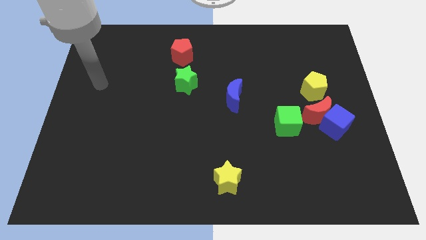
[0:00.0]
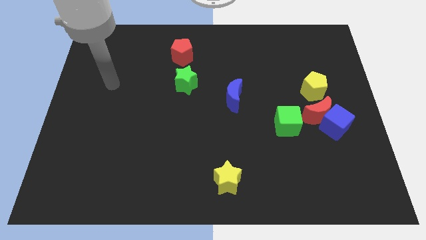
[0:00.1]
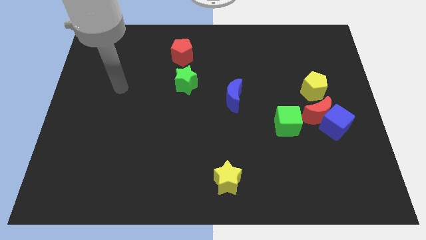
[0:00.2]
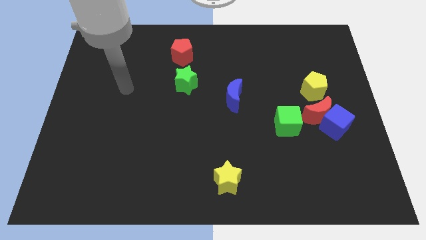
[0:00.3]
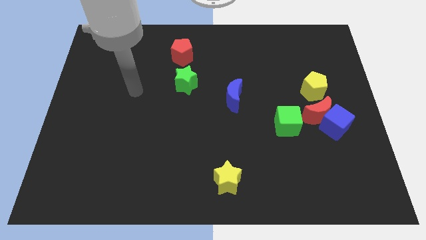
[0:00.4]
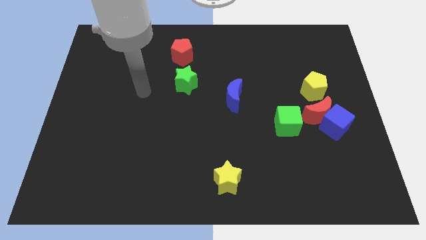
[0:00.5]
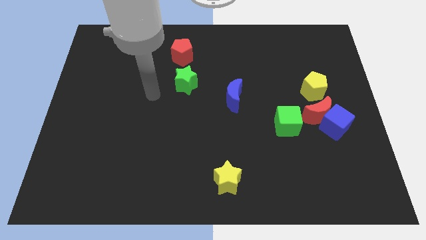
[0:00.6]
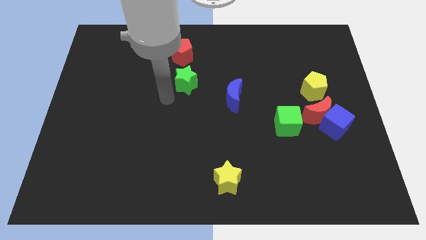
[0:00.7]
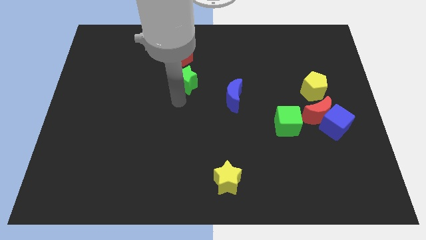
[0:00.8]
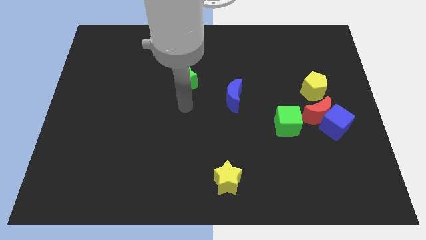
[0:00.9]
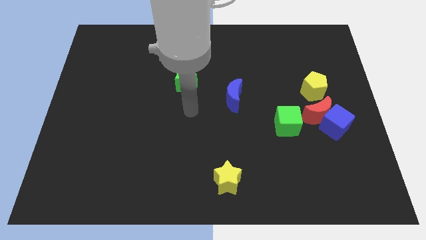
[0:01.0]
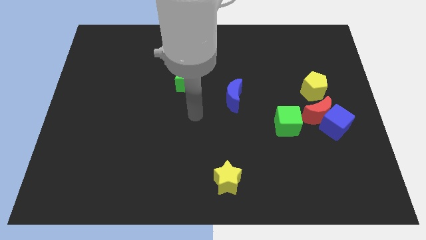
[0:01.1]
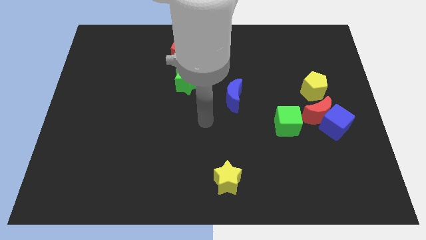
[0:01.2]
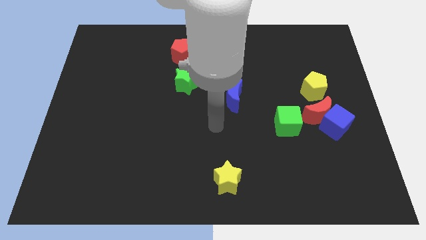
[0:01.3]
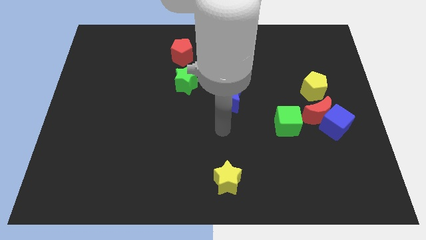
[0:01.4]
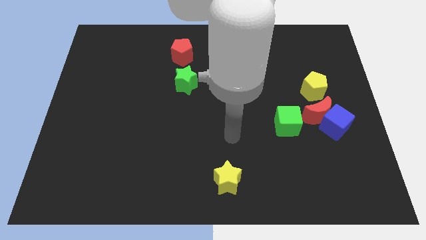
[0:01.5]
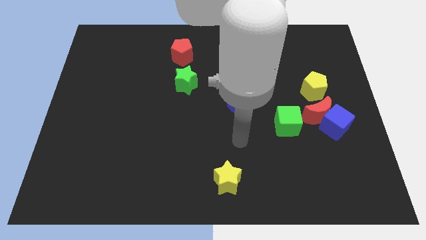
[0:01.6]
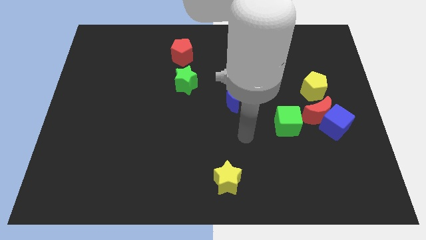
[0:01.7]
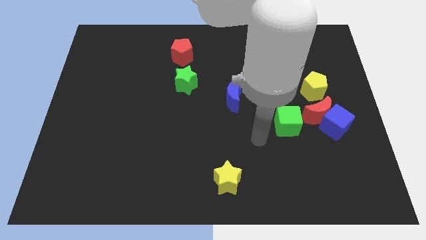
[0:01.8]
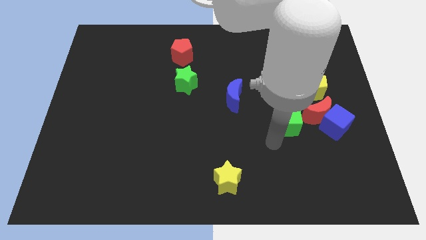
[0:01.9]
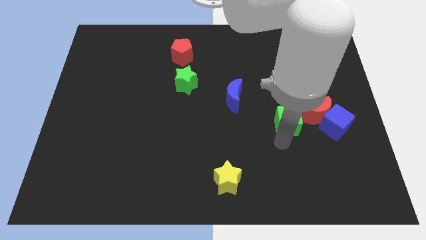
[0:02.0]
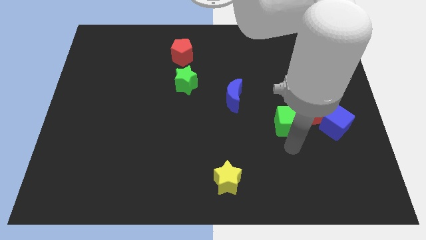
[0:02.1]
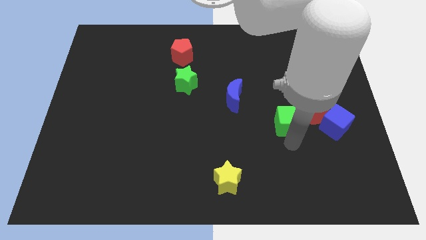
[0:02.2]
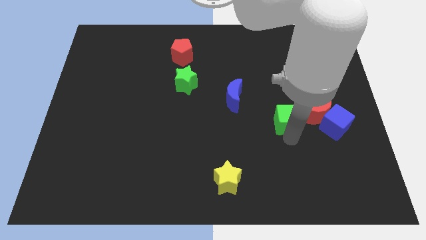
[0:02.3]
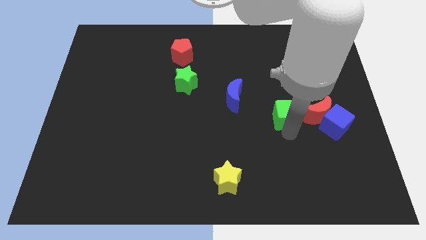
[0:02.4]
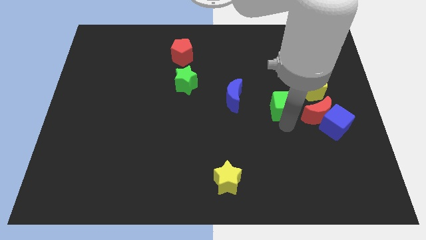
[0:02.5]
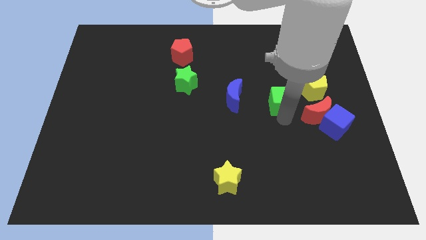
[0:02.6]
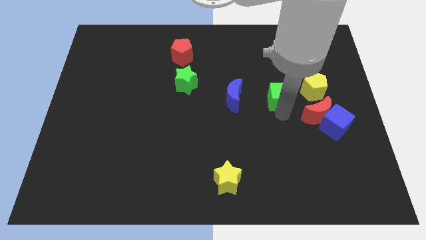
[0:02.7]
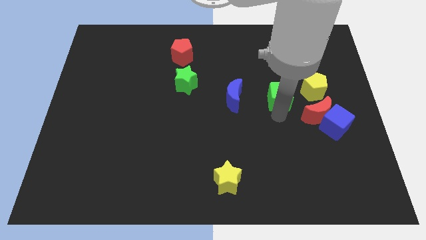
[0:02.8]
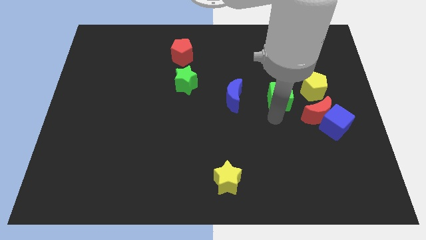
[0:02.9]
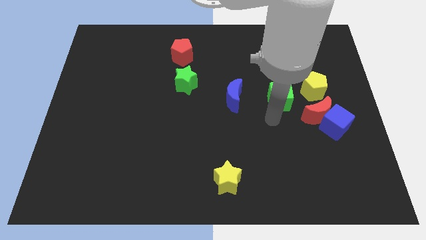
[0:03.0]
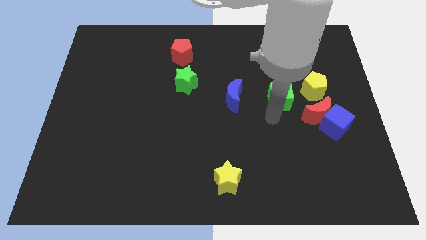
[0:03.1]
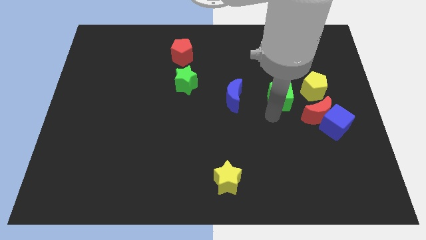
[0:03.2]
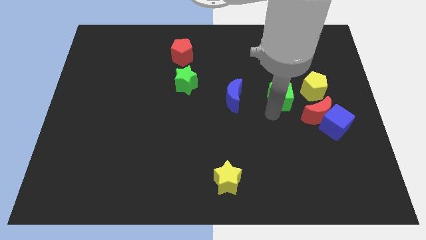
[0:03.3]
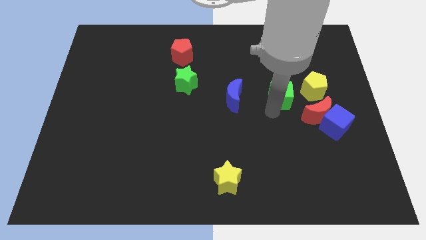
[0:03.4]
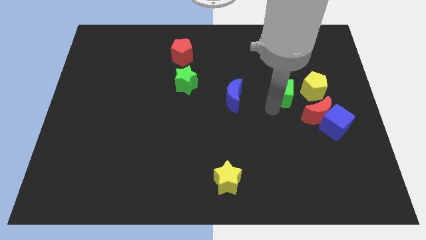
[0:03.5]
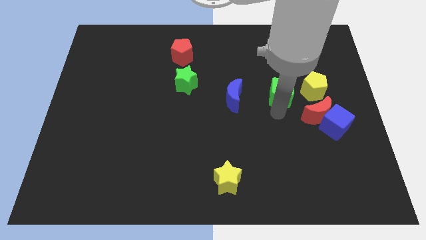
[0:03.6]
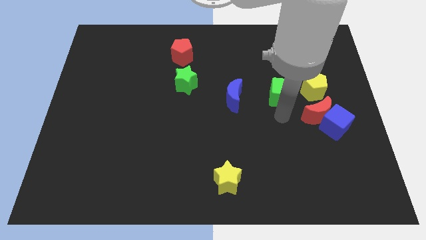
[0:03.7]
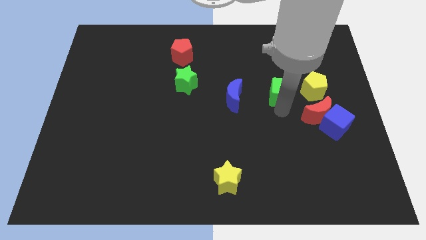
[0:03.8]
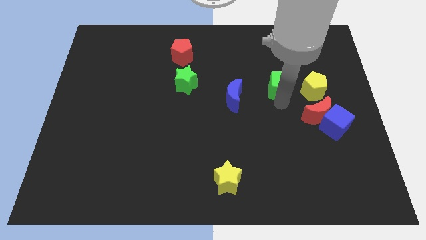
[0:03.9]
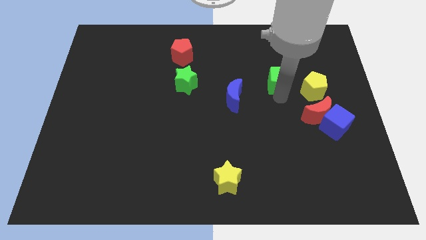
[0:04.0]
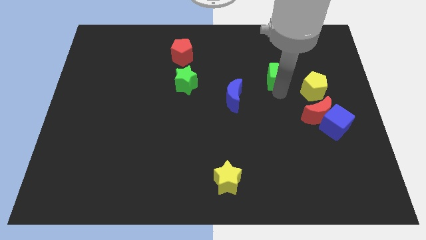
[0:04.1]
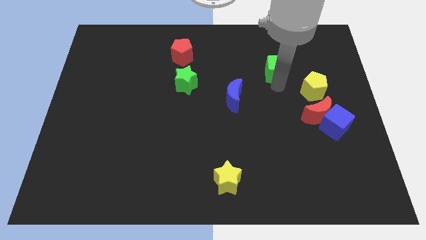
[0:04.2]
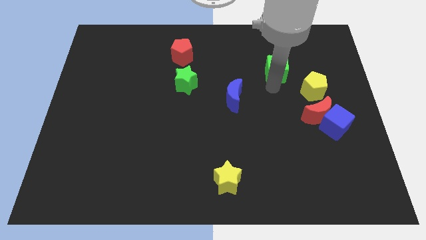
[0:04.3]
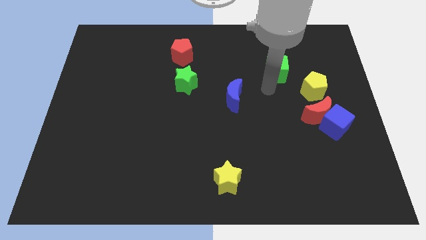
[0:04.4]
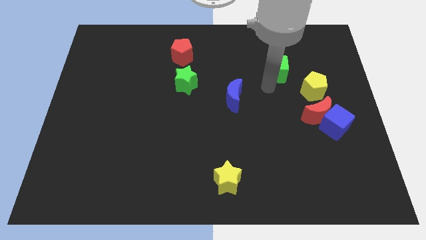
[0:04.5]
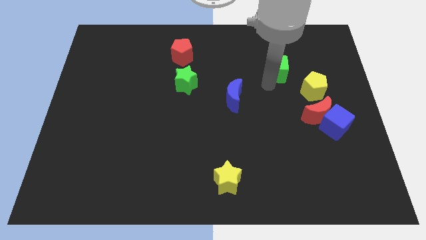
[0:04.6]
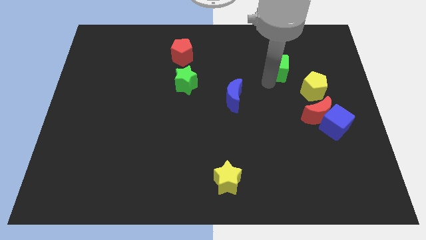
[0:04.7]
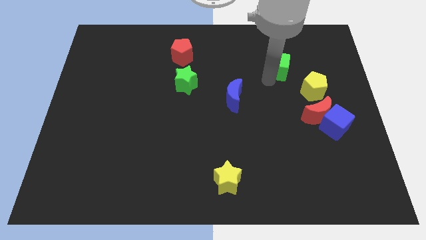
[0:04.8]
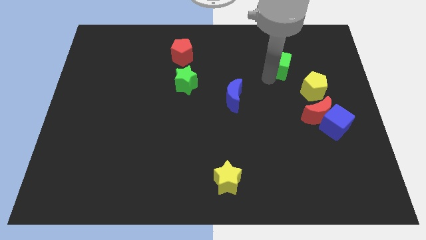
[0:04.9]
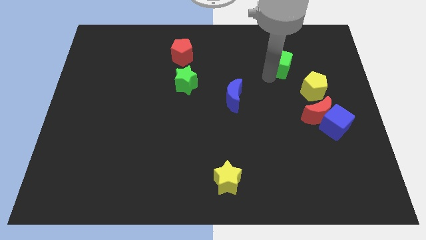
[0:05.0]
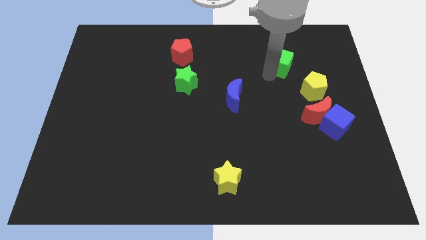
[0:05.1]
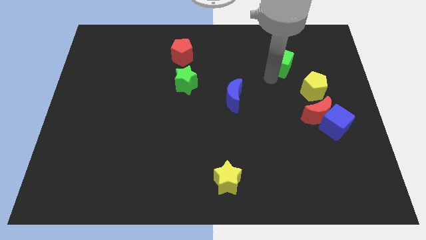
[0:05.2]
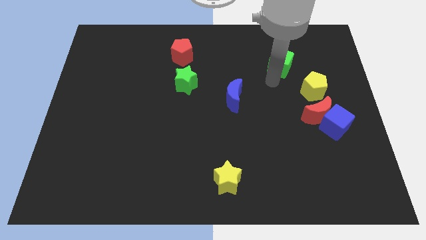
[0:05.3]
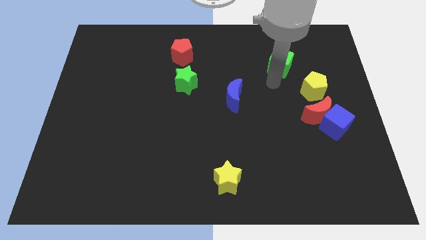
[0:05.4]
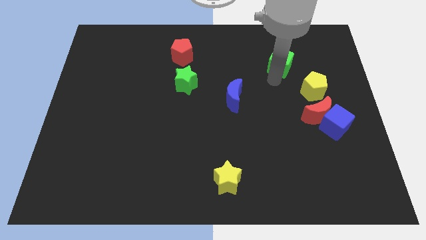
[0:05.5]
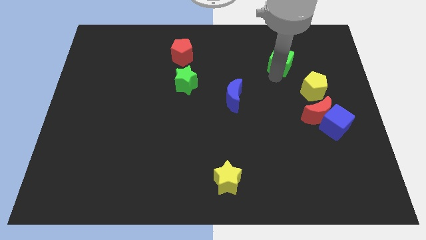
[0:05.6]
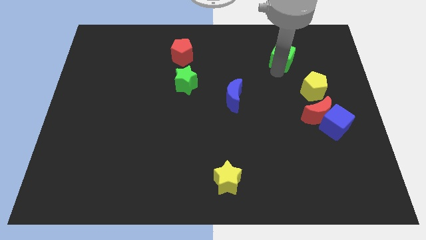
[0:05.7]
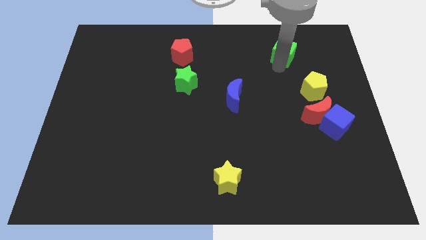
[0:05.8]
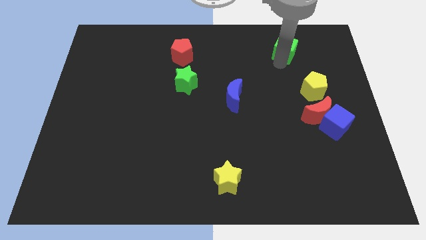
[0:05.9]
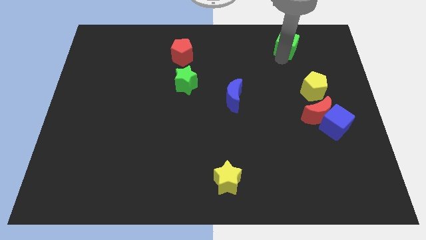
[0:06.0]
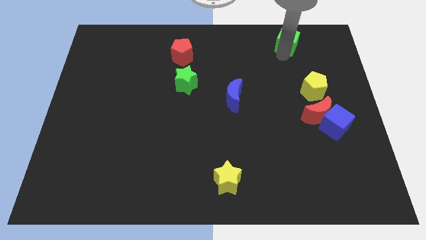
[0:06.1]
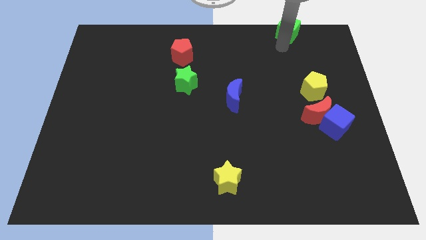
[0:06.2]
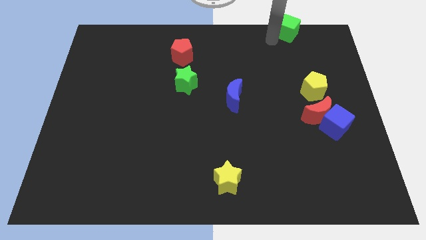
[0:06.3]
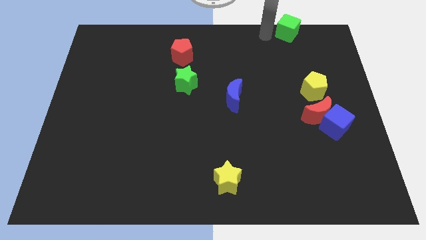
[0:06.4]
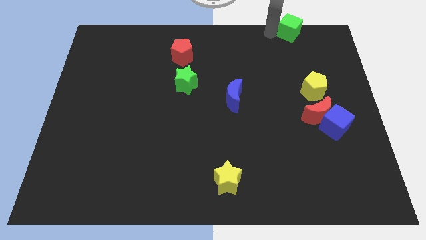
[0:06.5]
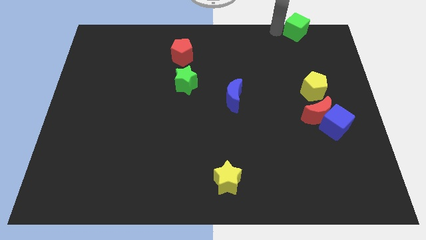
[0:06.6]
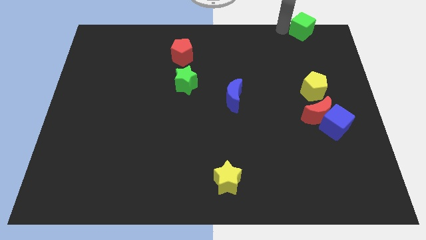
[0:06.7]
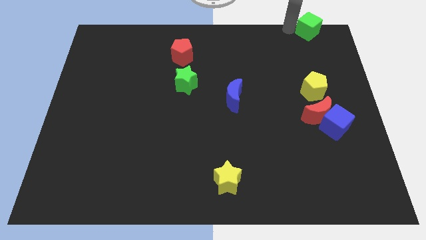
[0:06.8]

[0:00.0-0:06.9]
move the green cube to the upper right corner
